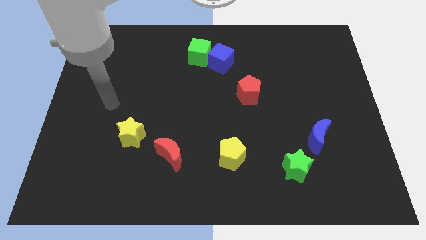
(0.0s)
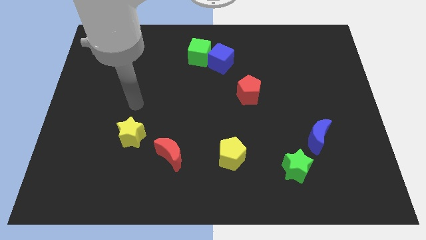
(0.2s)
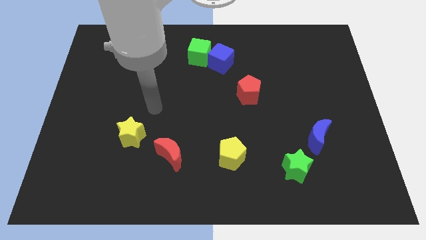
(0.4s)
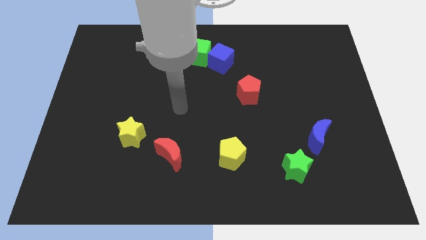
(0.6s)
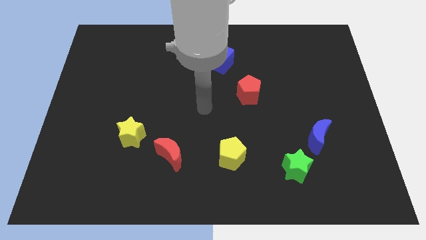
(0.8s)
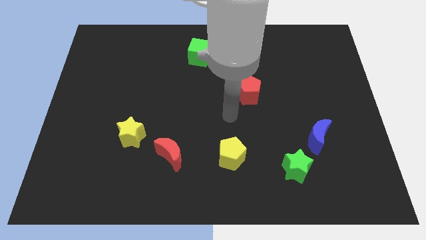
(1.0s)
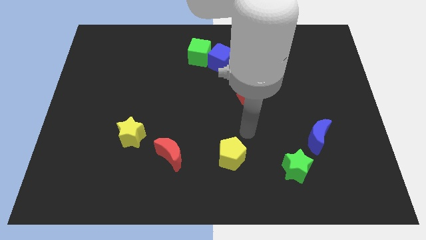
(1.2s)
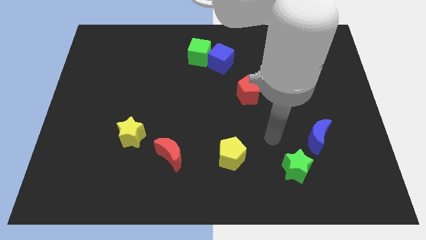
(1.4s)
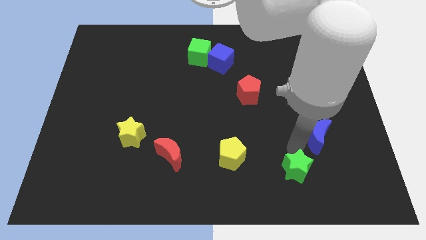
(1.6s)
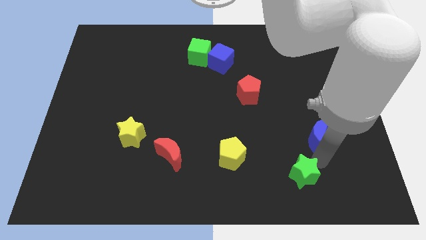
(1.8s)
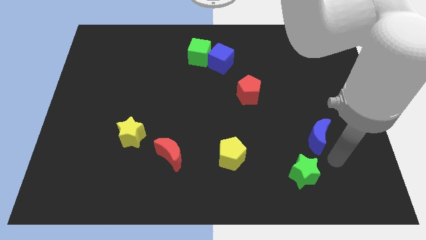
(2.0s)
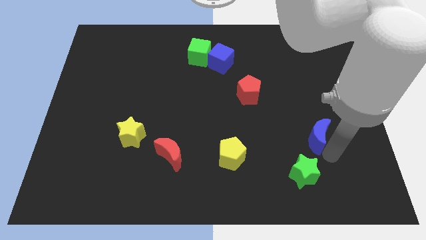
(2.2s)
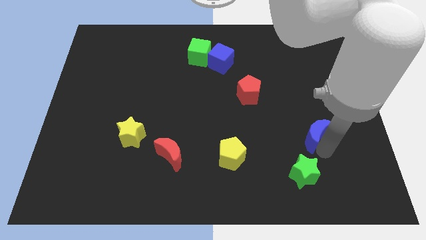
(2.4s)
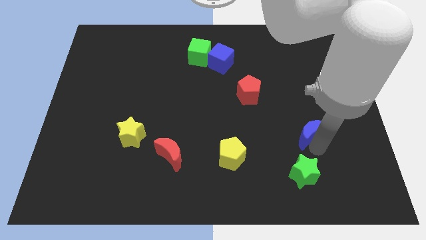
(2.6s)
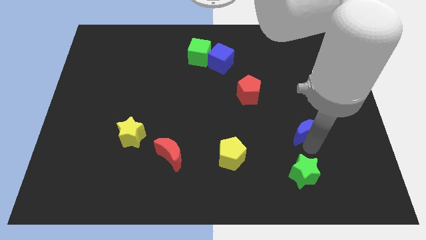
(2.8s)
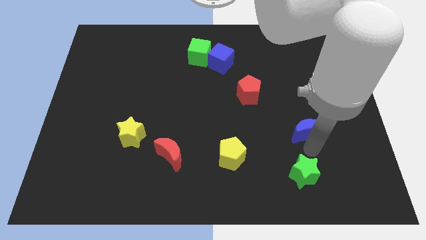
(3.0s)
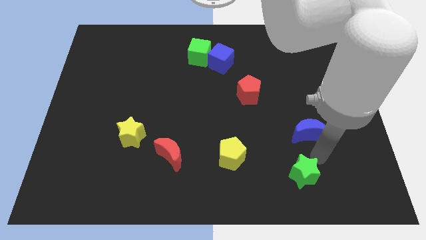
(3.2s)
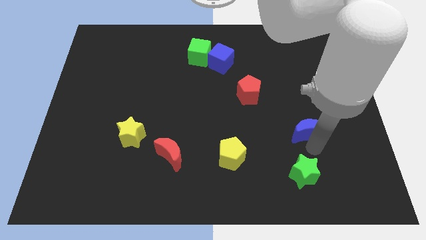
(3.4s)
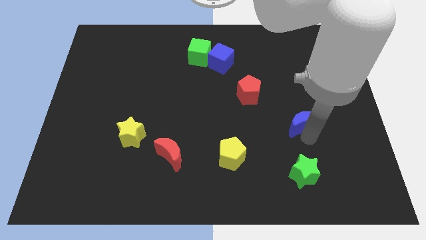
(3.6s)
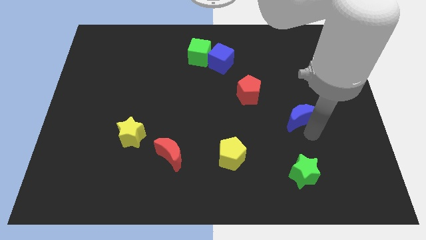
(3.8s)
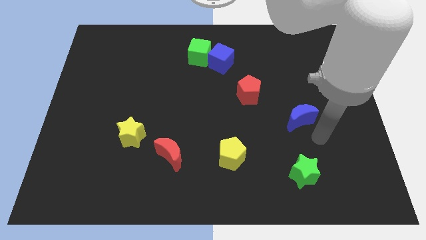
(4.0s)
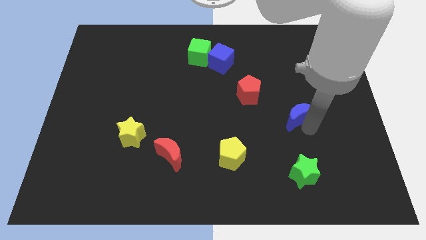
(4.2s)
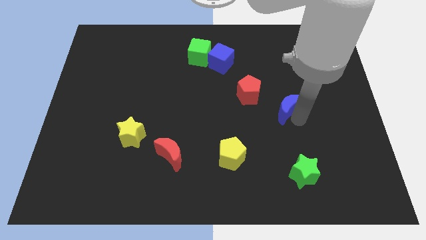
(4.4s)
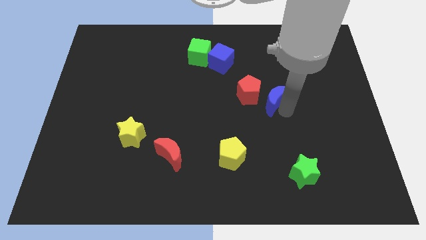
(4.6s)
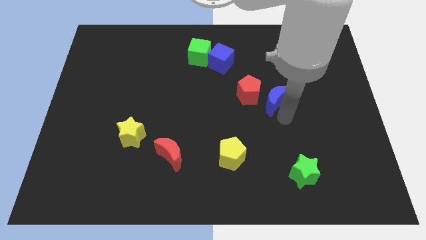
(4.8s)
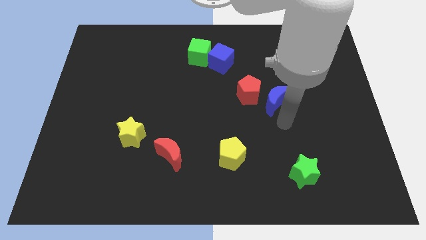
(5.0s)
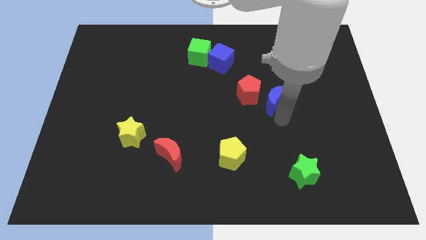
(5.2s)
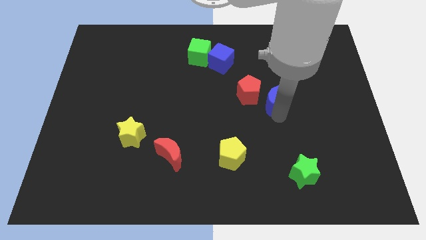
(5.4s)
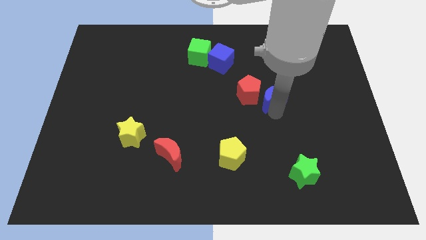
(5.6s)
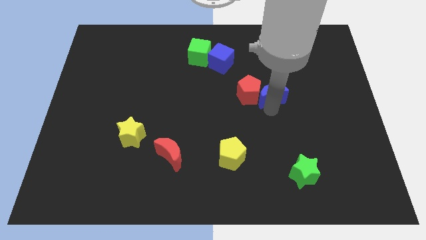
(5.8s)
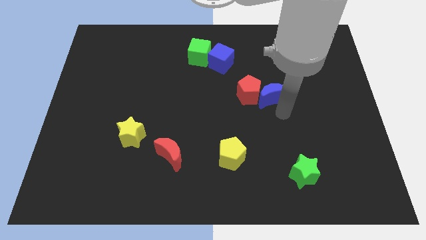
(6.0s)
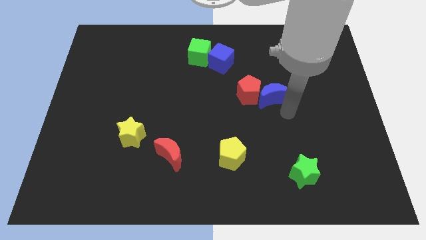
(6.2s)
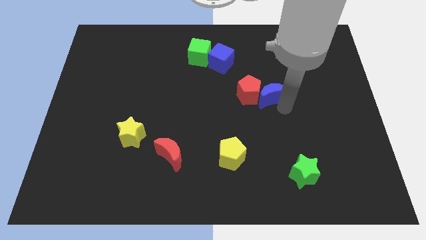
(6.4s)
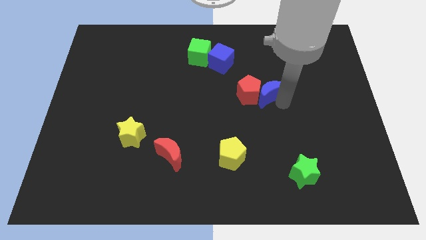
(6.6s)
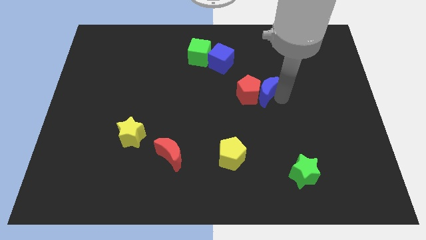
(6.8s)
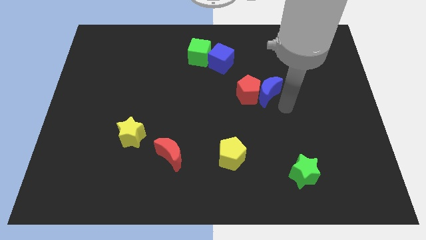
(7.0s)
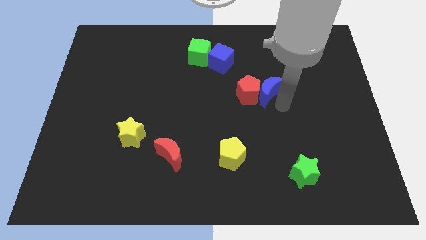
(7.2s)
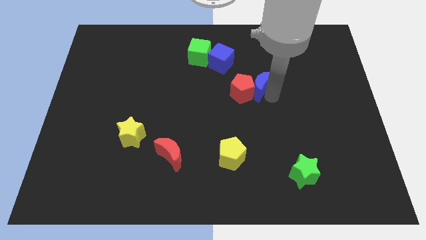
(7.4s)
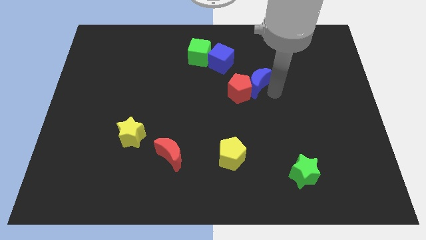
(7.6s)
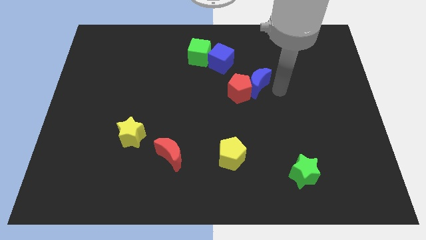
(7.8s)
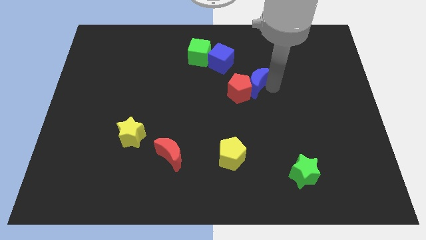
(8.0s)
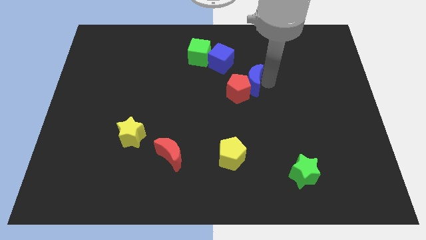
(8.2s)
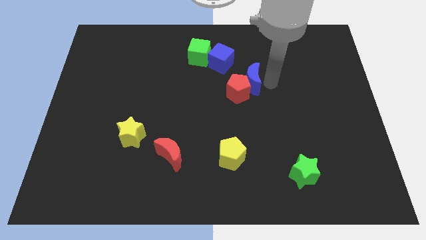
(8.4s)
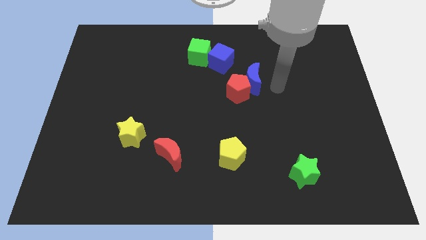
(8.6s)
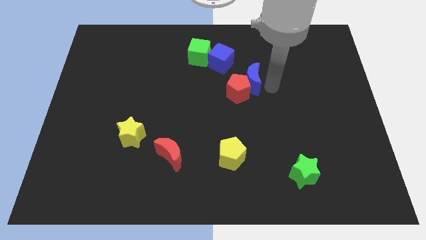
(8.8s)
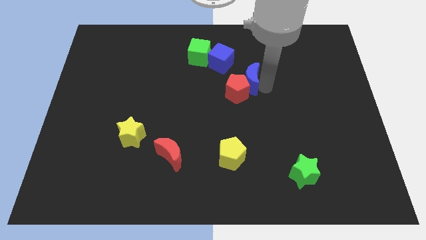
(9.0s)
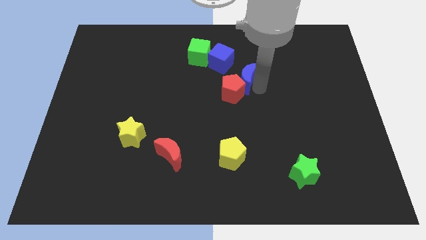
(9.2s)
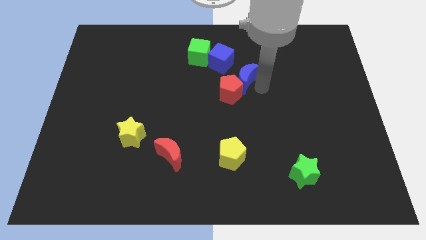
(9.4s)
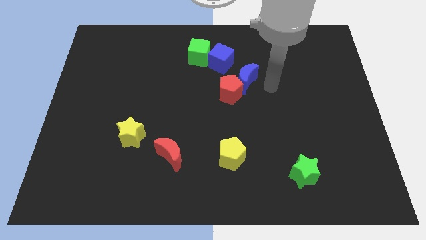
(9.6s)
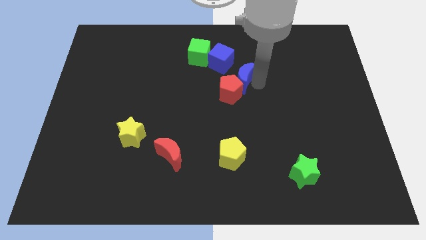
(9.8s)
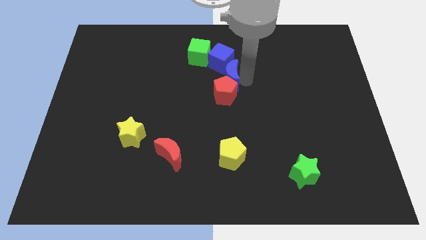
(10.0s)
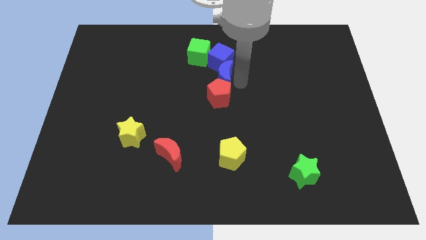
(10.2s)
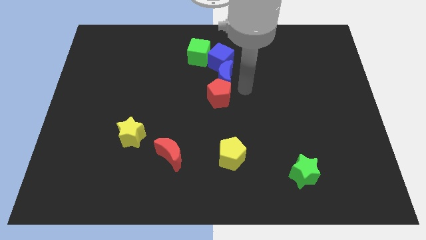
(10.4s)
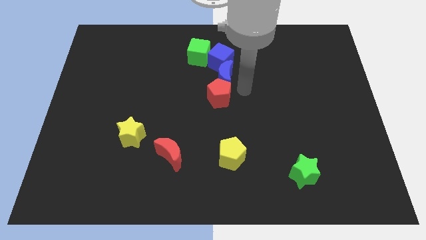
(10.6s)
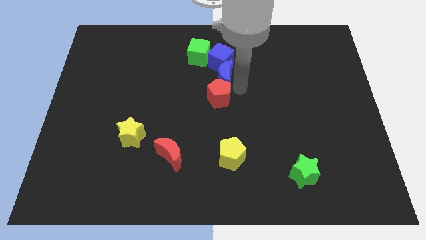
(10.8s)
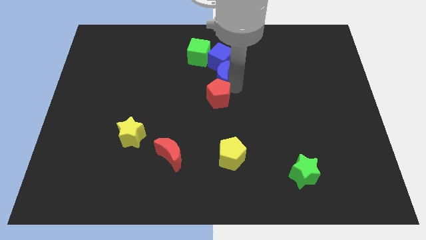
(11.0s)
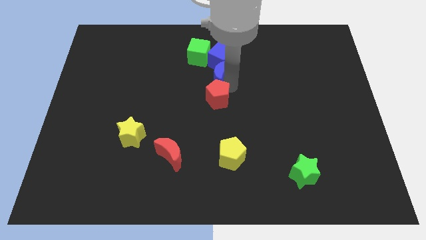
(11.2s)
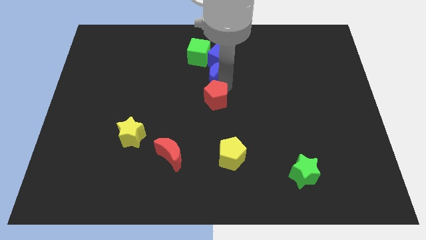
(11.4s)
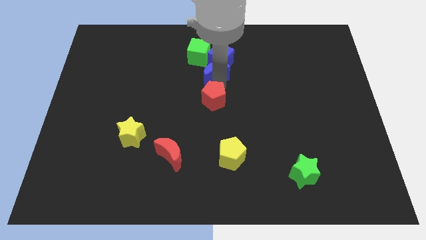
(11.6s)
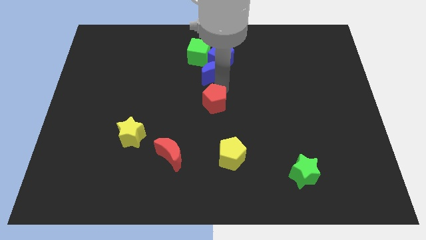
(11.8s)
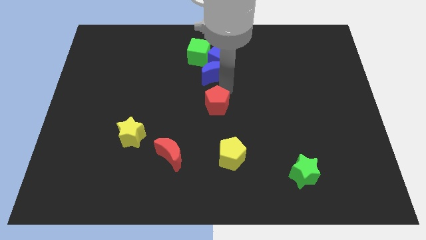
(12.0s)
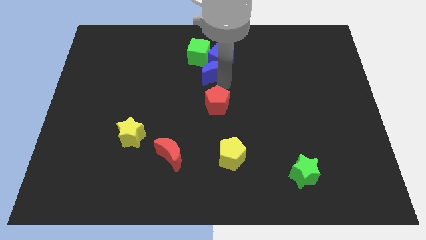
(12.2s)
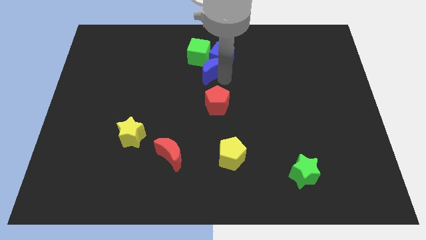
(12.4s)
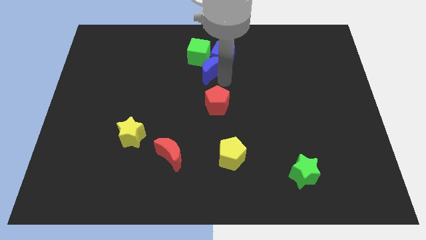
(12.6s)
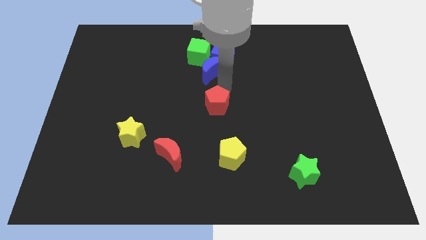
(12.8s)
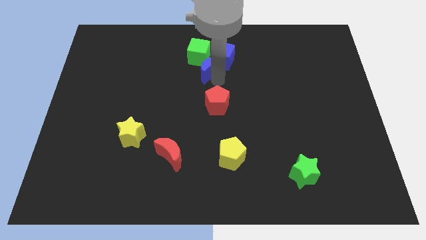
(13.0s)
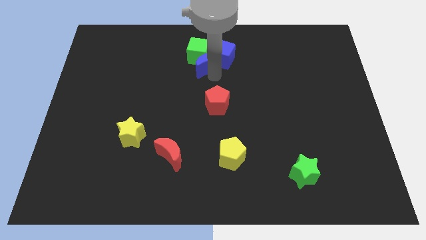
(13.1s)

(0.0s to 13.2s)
put the blue moon close to the green cube
